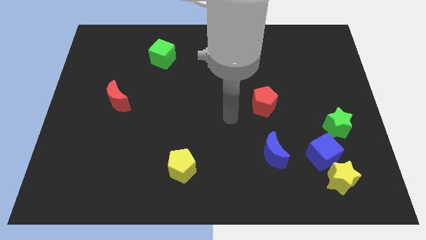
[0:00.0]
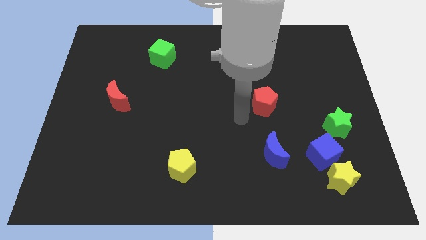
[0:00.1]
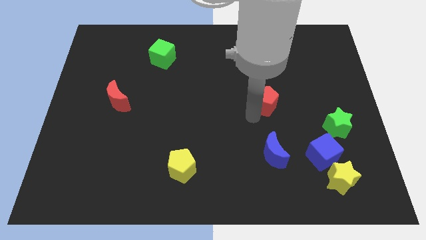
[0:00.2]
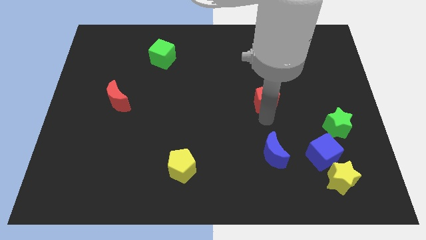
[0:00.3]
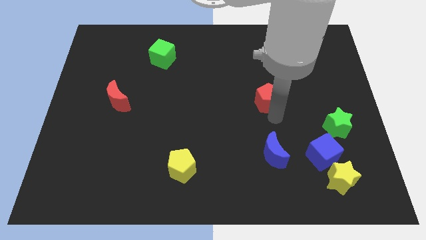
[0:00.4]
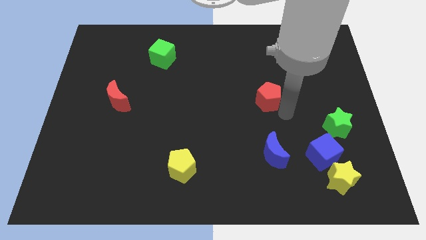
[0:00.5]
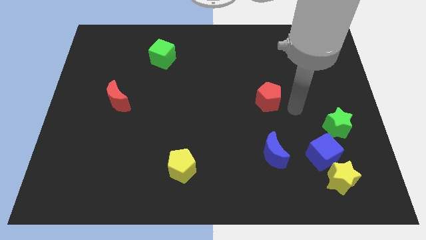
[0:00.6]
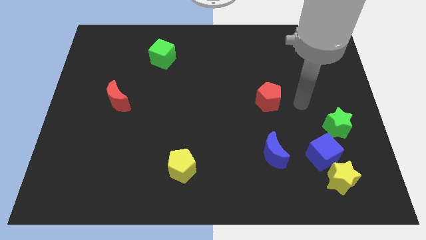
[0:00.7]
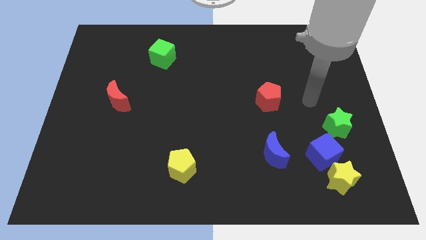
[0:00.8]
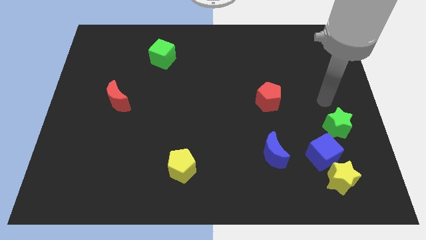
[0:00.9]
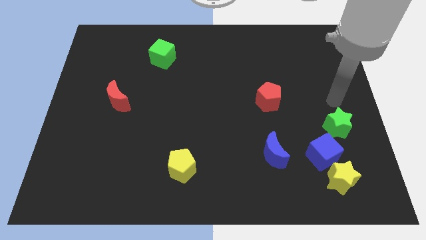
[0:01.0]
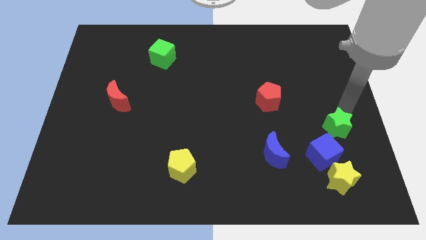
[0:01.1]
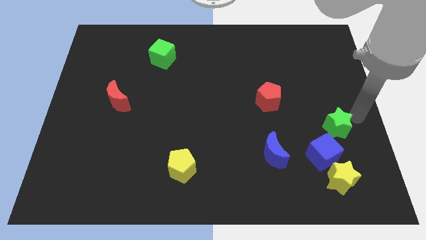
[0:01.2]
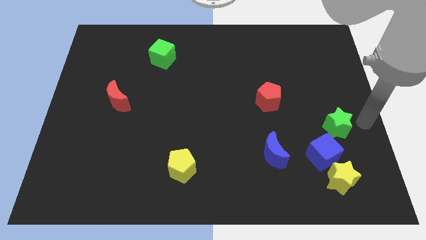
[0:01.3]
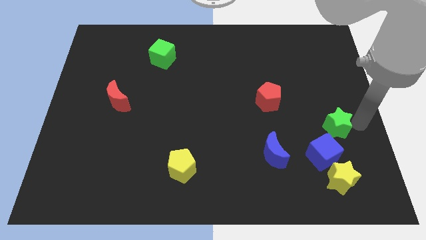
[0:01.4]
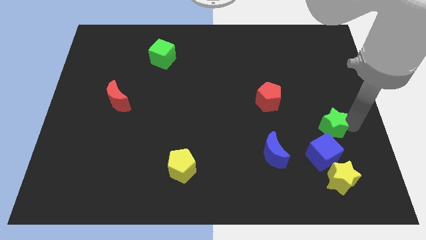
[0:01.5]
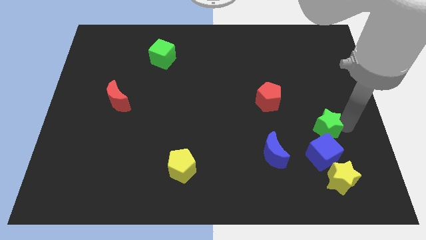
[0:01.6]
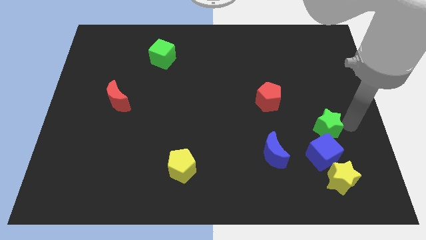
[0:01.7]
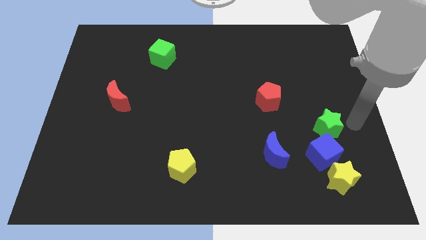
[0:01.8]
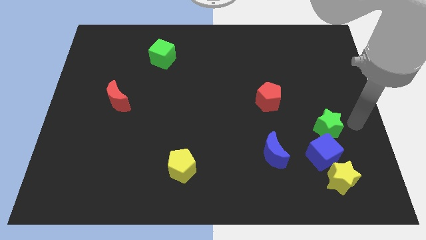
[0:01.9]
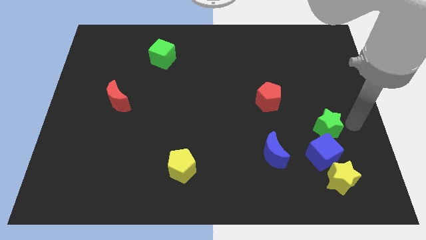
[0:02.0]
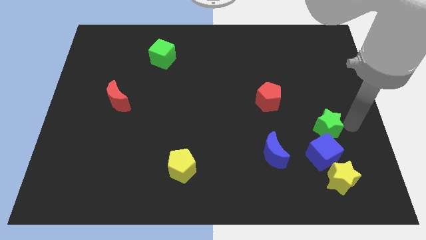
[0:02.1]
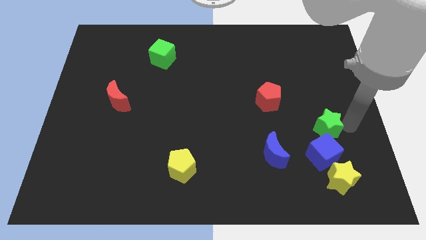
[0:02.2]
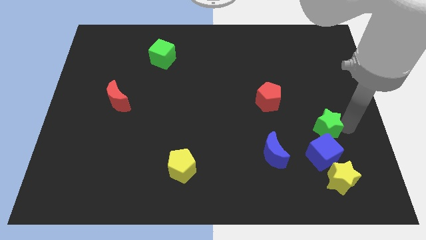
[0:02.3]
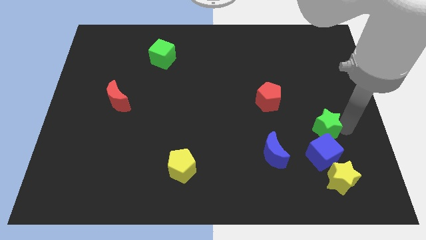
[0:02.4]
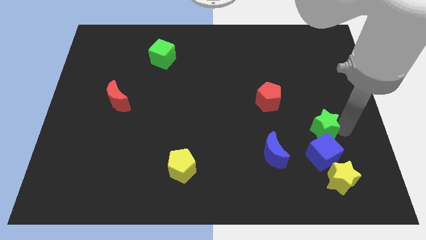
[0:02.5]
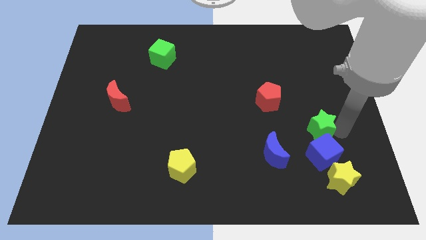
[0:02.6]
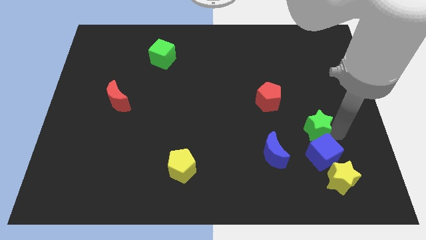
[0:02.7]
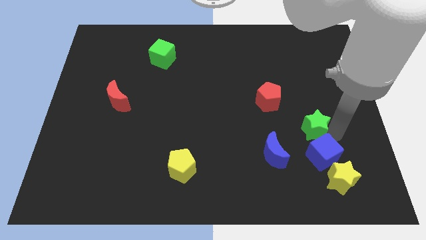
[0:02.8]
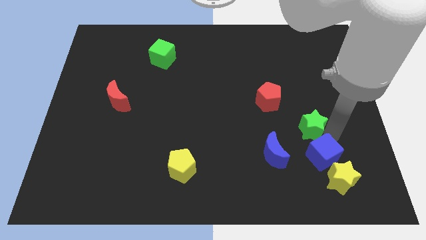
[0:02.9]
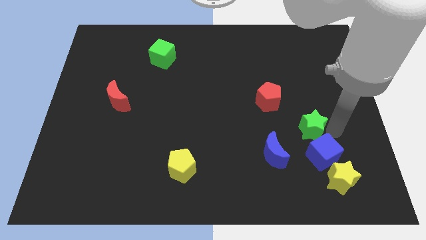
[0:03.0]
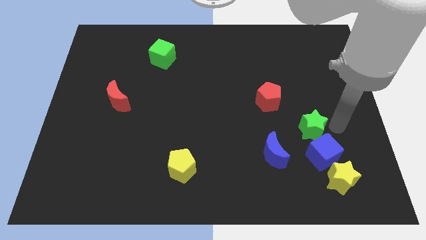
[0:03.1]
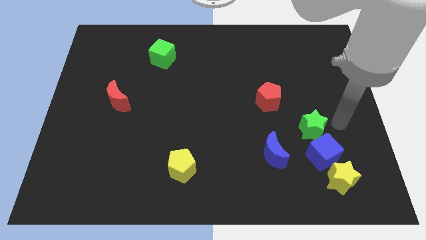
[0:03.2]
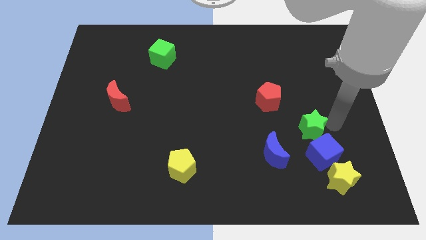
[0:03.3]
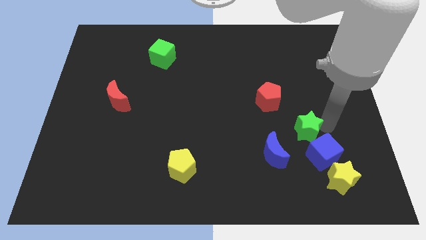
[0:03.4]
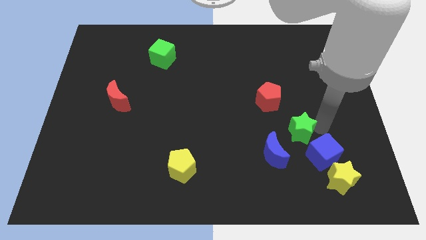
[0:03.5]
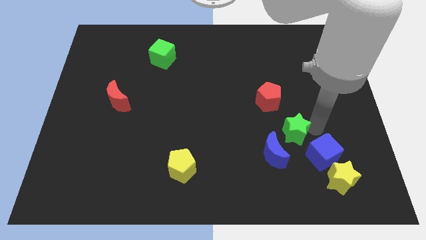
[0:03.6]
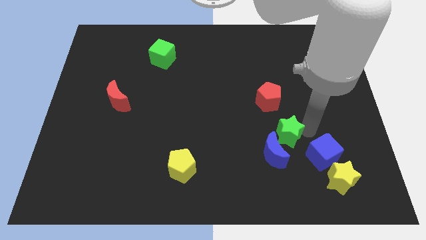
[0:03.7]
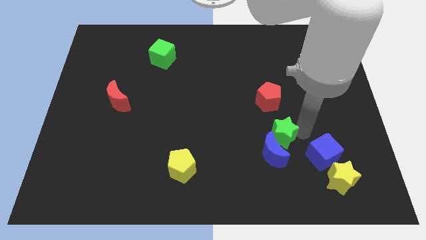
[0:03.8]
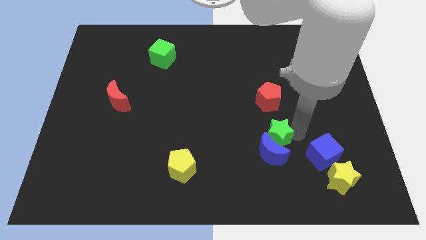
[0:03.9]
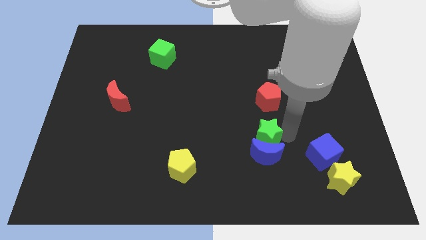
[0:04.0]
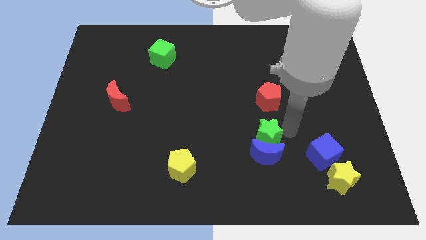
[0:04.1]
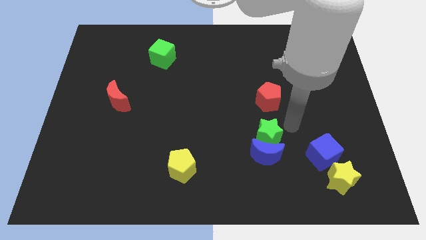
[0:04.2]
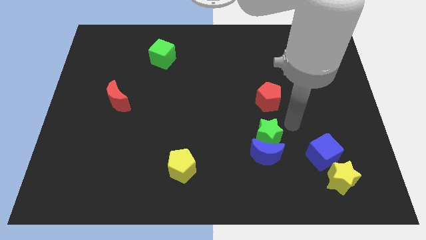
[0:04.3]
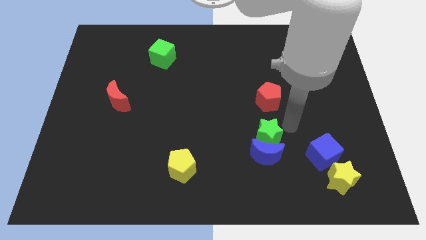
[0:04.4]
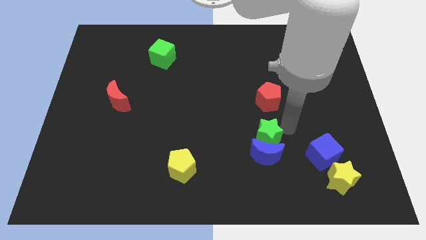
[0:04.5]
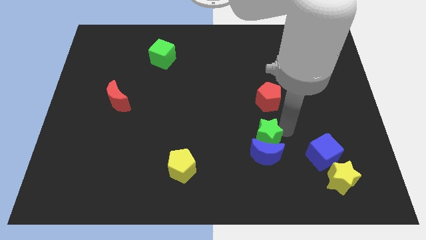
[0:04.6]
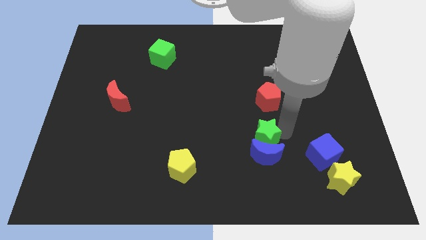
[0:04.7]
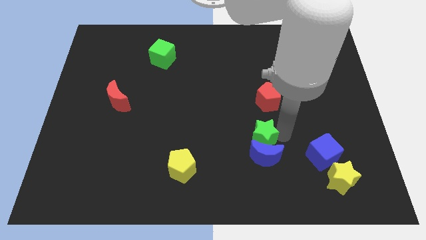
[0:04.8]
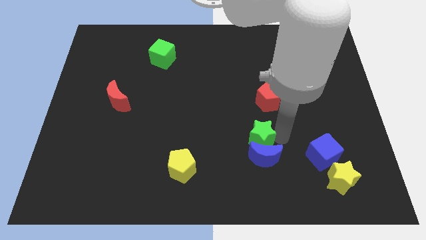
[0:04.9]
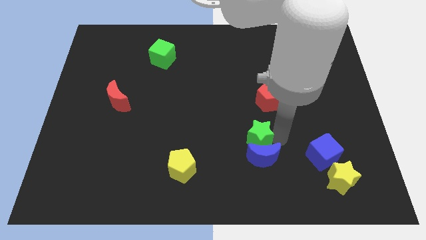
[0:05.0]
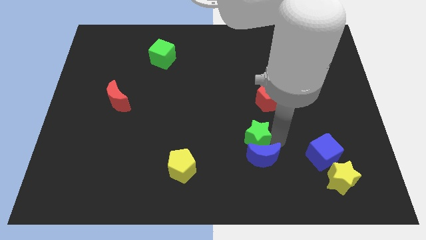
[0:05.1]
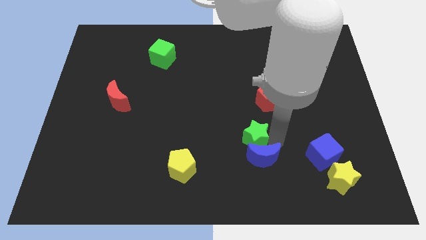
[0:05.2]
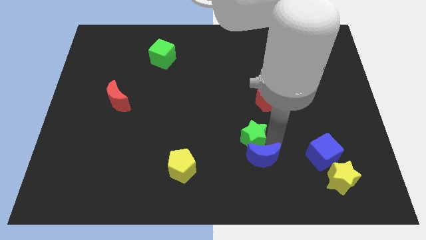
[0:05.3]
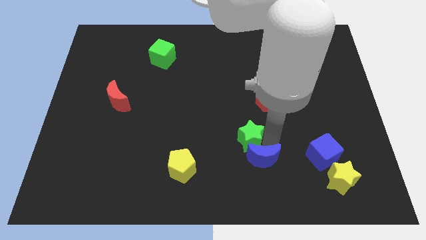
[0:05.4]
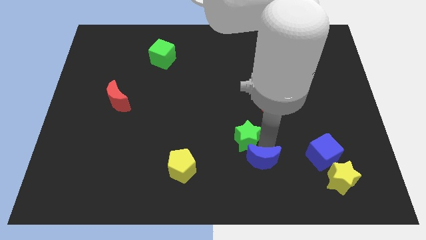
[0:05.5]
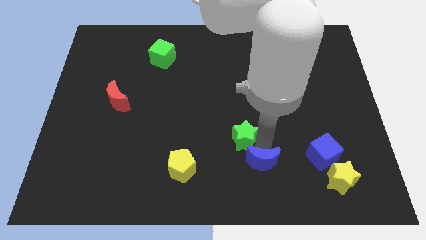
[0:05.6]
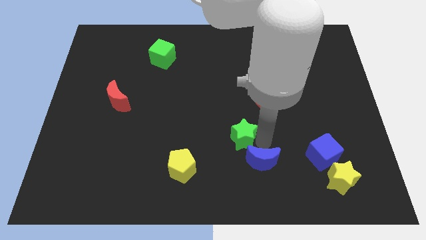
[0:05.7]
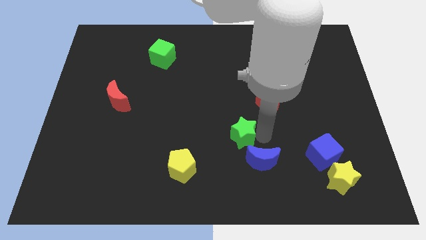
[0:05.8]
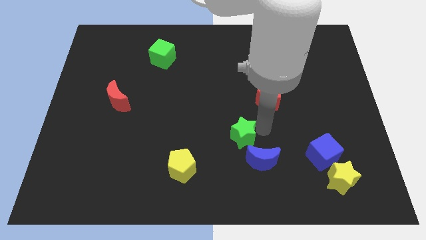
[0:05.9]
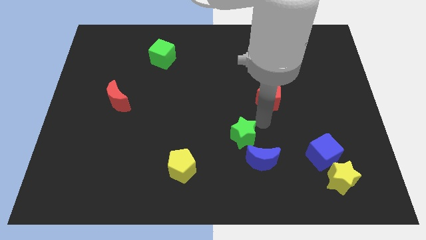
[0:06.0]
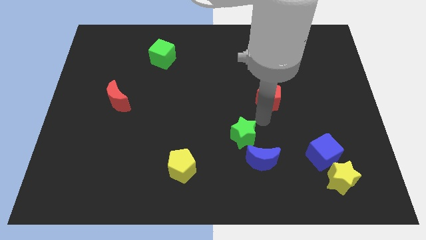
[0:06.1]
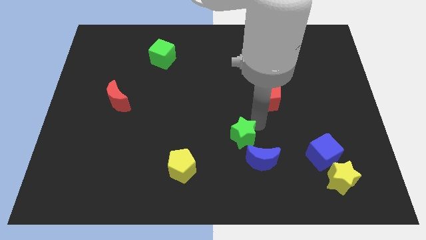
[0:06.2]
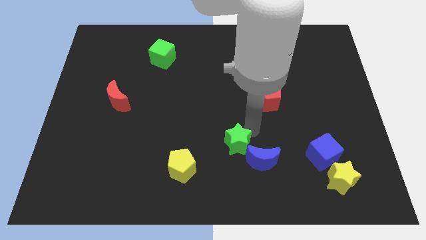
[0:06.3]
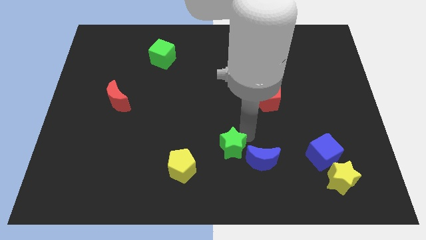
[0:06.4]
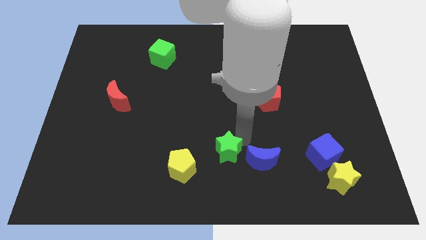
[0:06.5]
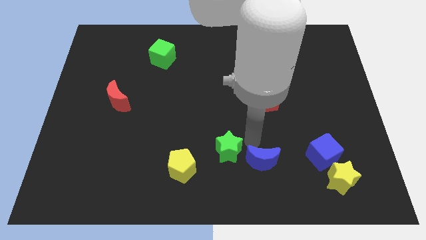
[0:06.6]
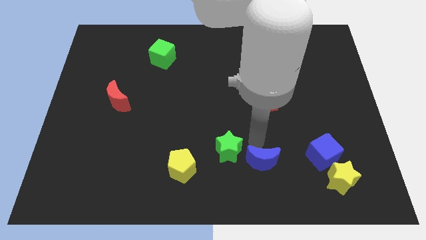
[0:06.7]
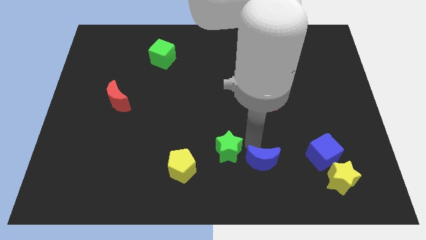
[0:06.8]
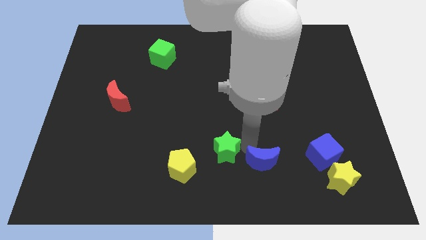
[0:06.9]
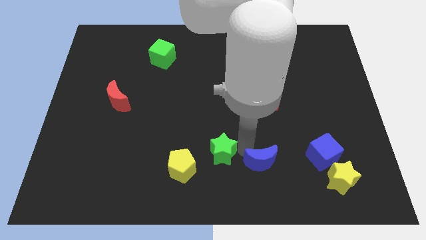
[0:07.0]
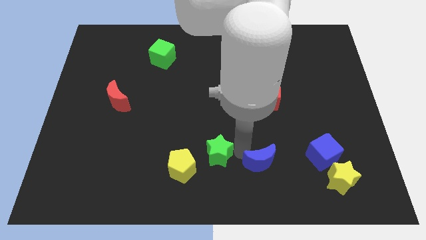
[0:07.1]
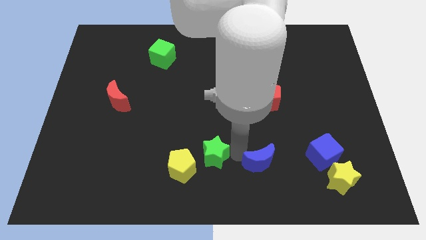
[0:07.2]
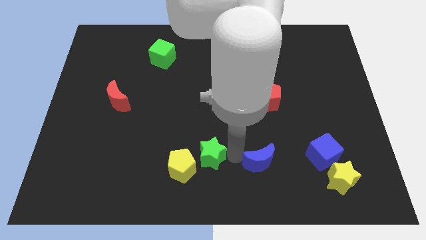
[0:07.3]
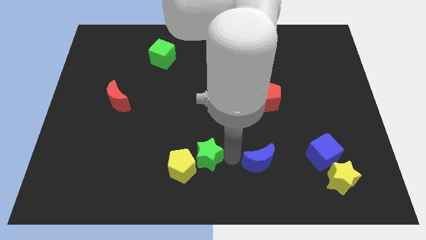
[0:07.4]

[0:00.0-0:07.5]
put the green star next to the yellow pentagon
